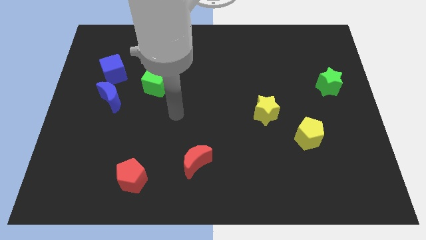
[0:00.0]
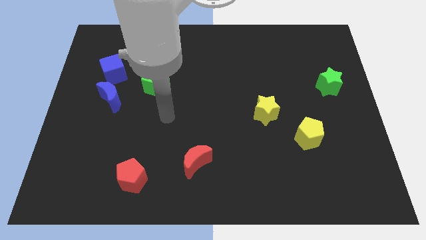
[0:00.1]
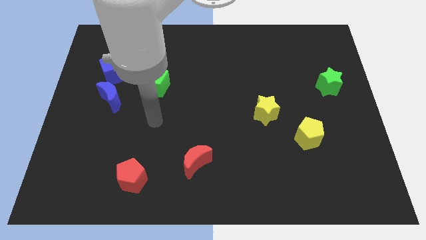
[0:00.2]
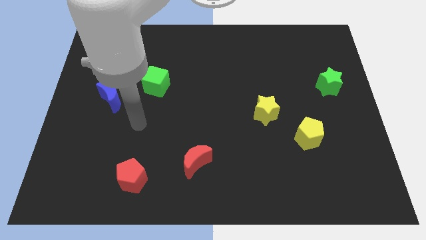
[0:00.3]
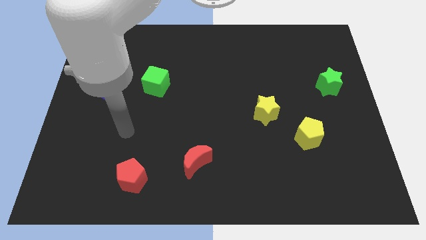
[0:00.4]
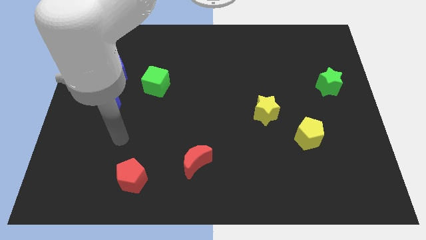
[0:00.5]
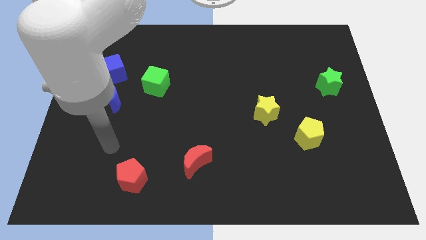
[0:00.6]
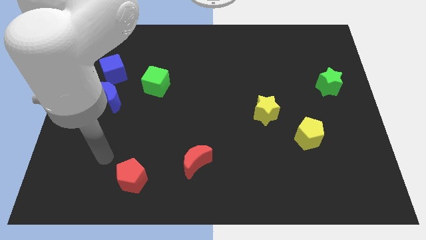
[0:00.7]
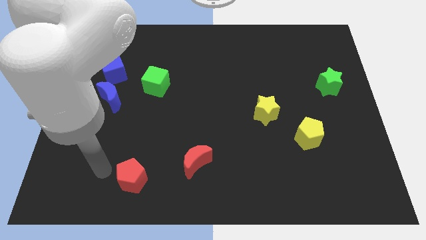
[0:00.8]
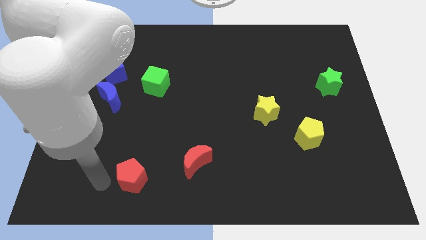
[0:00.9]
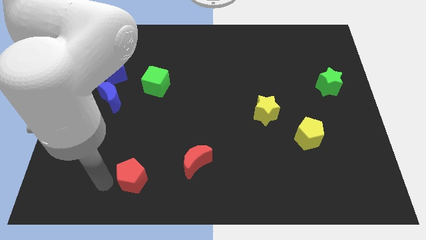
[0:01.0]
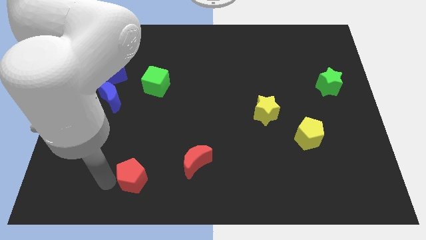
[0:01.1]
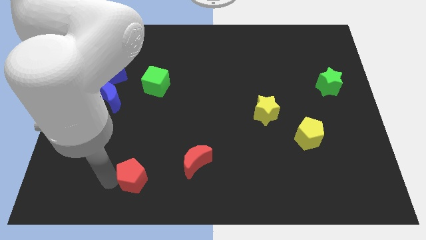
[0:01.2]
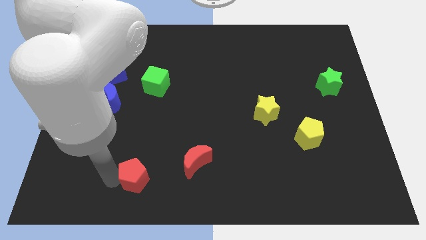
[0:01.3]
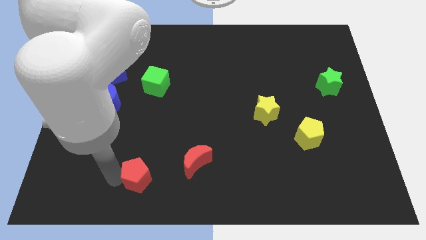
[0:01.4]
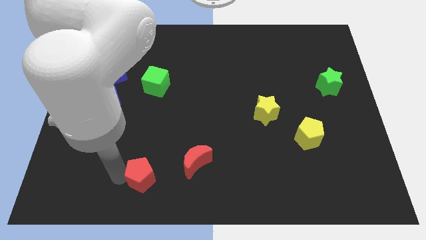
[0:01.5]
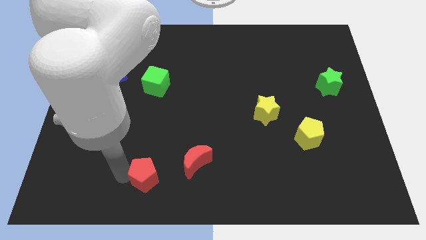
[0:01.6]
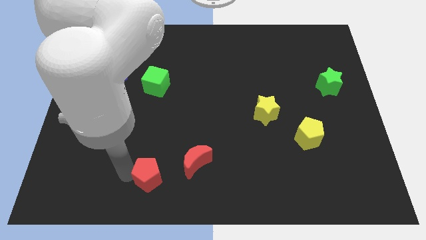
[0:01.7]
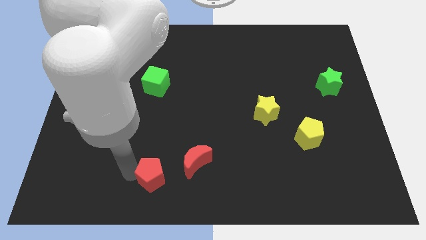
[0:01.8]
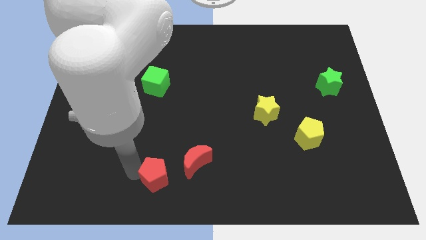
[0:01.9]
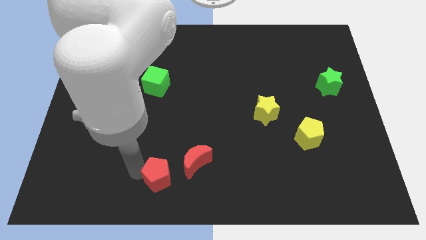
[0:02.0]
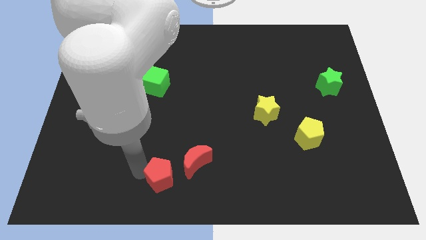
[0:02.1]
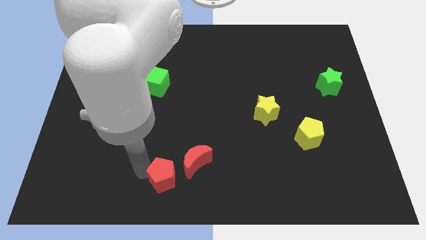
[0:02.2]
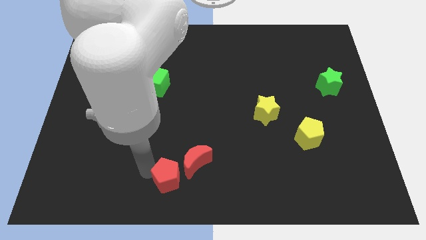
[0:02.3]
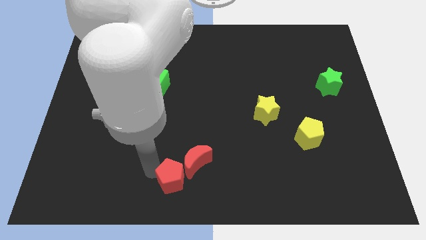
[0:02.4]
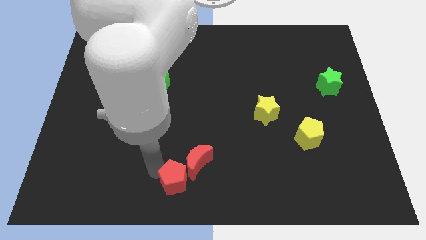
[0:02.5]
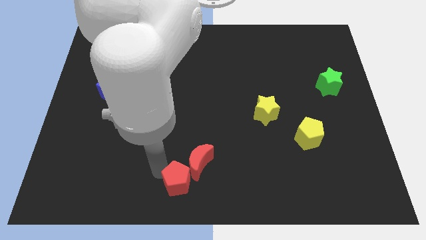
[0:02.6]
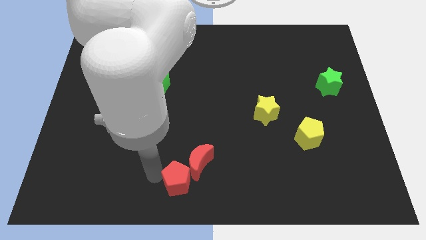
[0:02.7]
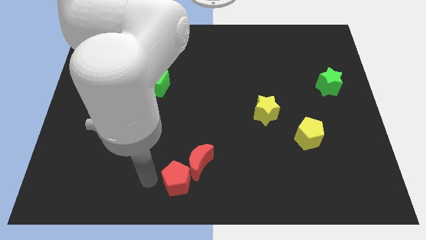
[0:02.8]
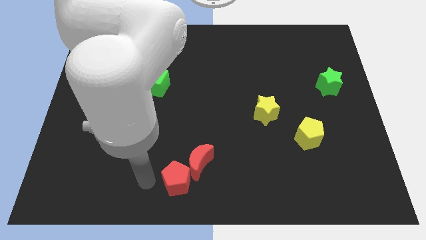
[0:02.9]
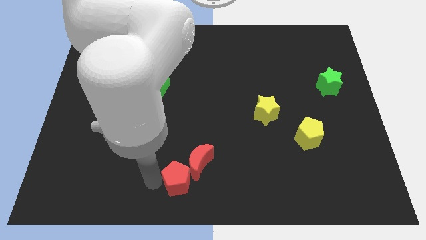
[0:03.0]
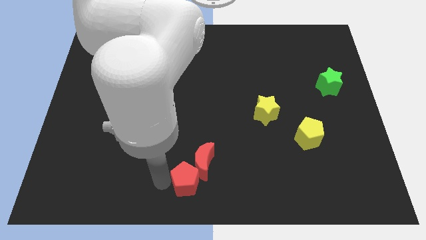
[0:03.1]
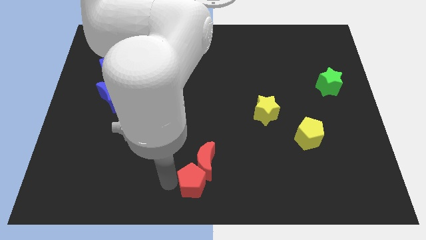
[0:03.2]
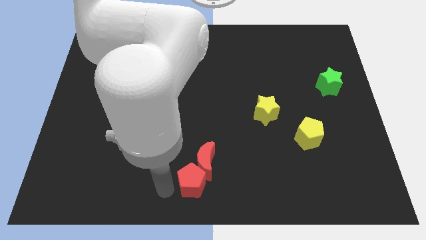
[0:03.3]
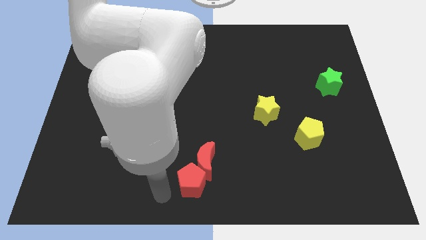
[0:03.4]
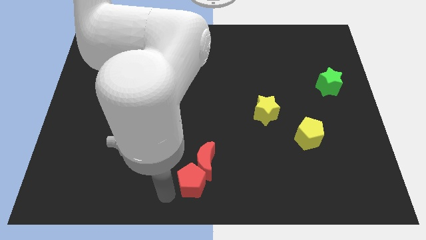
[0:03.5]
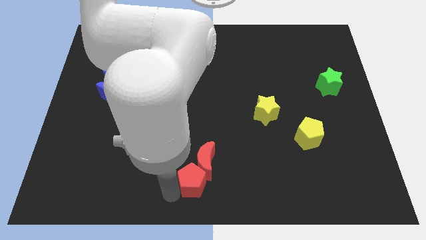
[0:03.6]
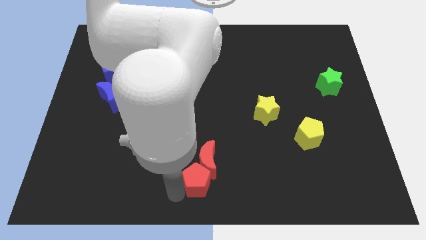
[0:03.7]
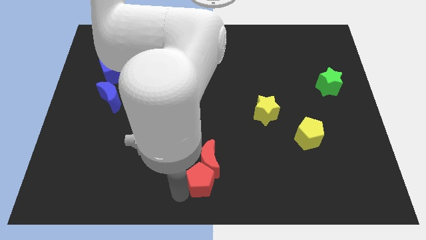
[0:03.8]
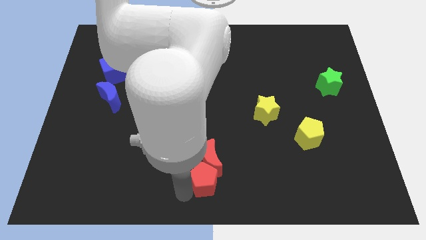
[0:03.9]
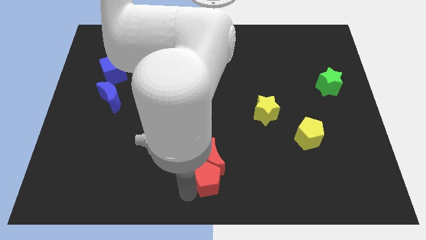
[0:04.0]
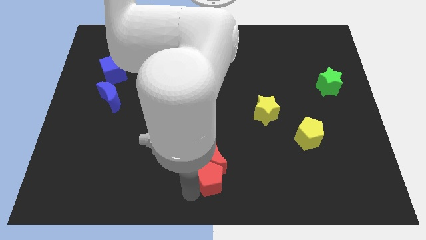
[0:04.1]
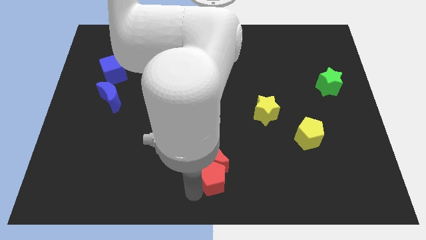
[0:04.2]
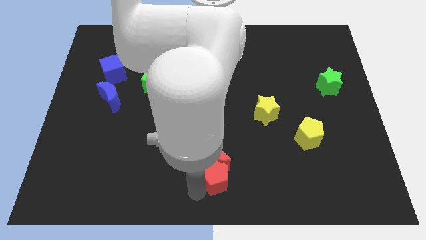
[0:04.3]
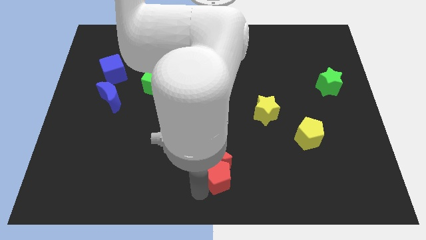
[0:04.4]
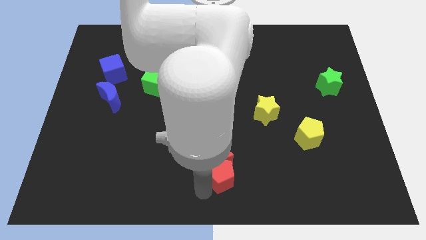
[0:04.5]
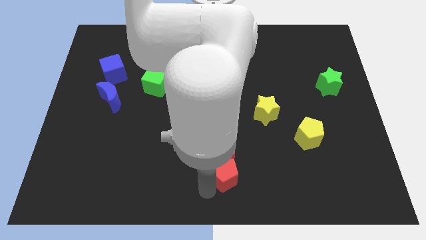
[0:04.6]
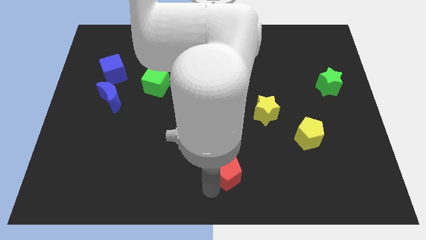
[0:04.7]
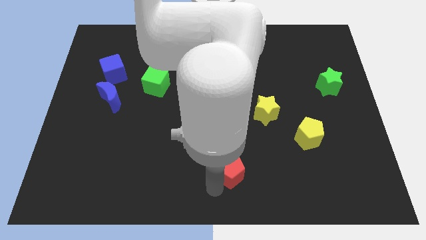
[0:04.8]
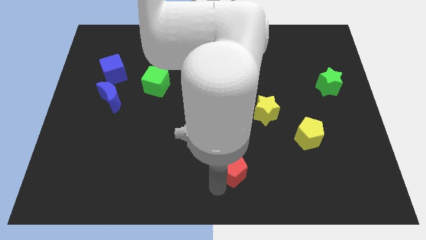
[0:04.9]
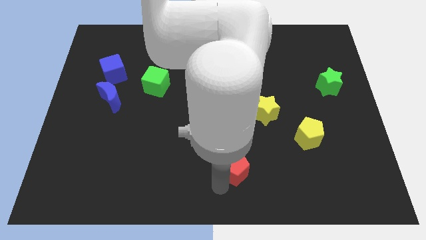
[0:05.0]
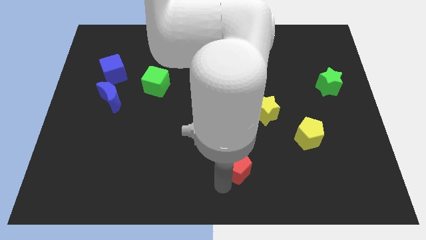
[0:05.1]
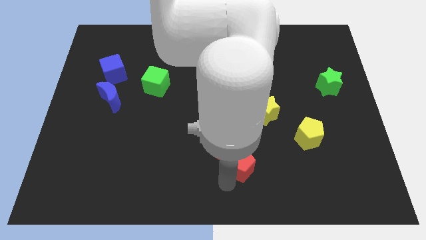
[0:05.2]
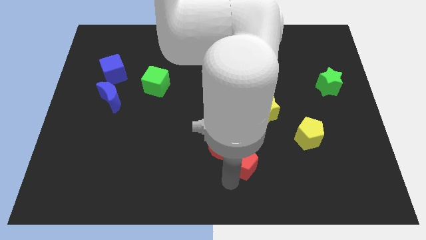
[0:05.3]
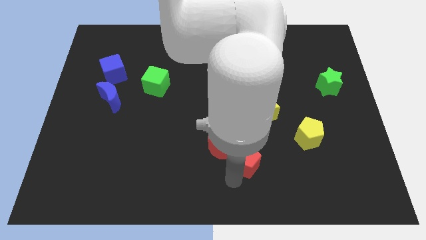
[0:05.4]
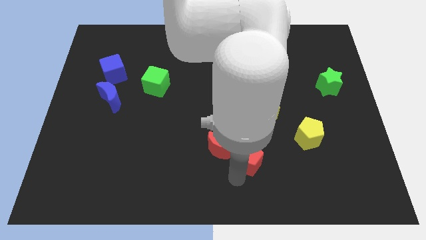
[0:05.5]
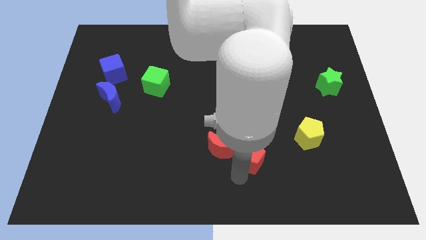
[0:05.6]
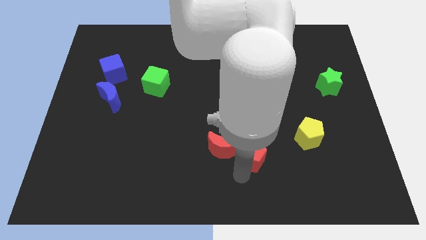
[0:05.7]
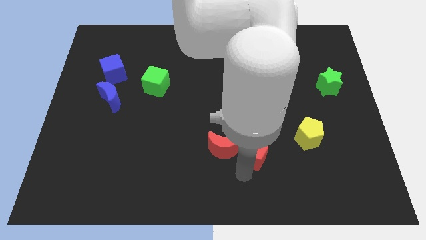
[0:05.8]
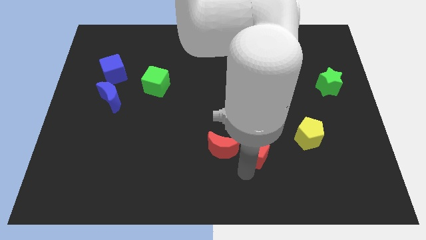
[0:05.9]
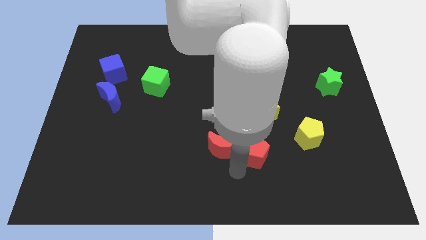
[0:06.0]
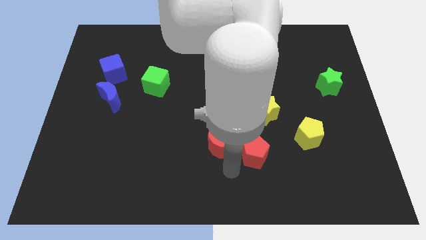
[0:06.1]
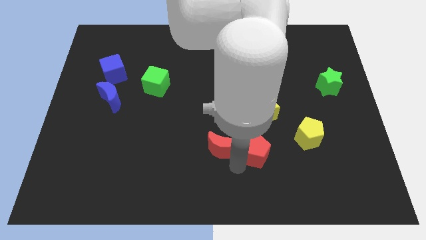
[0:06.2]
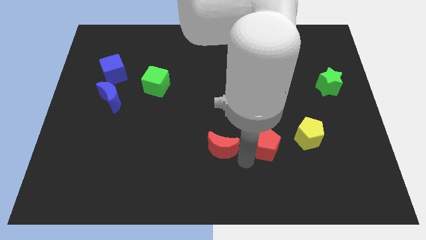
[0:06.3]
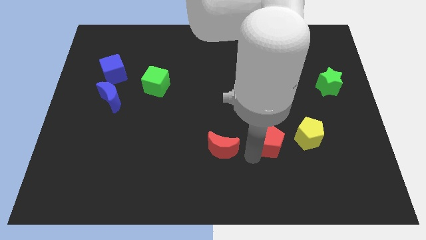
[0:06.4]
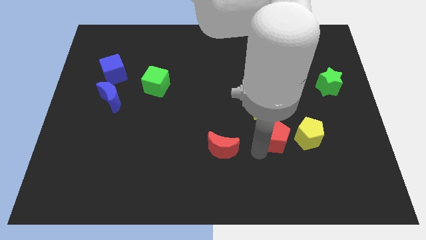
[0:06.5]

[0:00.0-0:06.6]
put the red pentagon to the bottom right of the yellow star

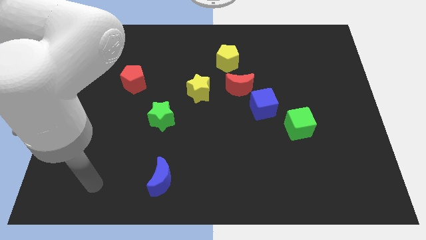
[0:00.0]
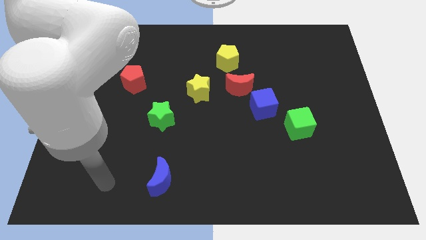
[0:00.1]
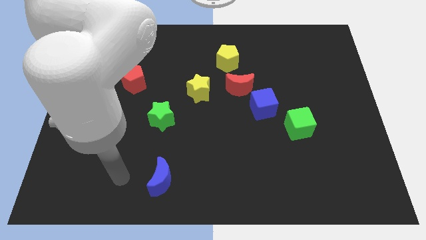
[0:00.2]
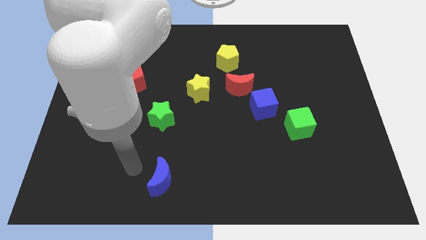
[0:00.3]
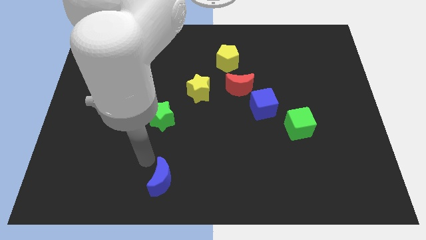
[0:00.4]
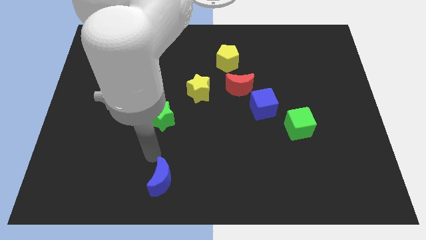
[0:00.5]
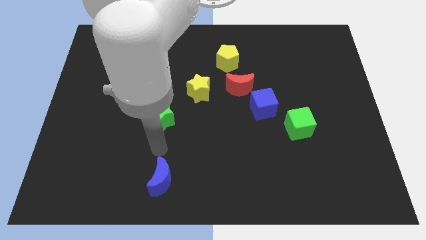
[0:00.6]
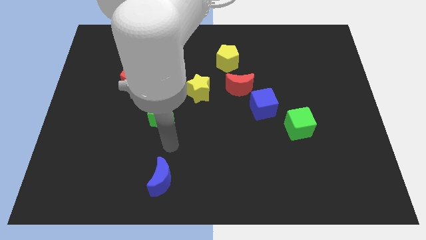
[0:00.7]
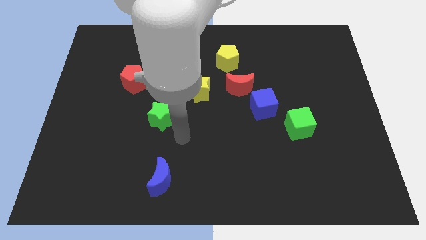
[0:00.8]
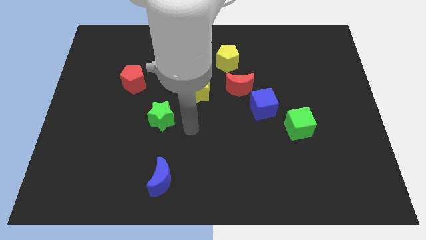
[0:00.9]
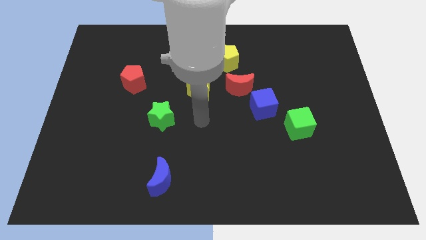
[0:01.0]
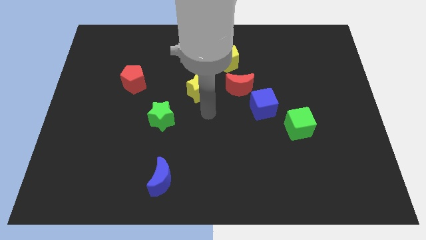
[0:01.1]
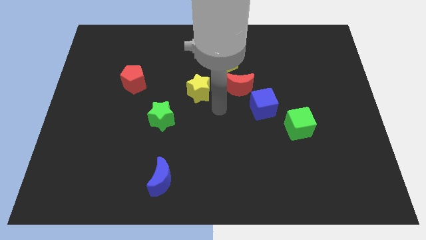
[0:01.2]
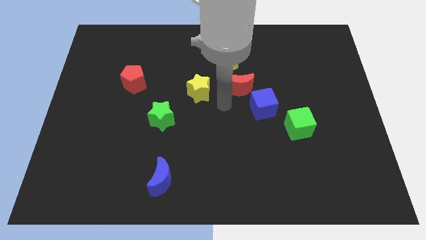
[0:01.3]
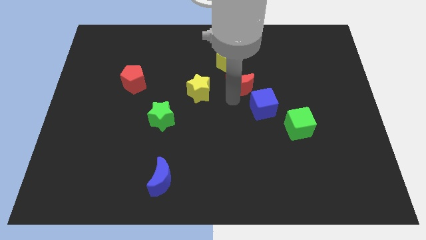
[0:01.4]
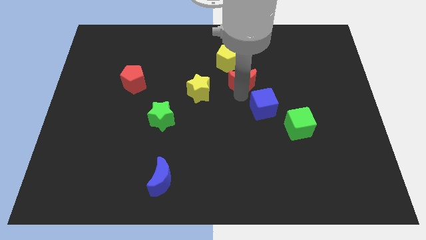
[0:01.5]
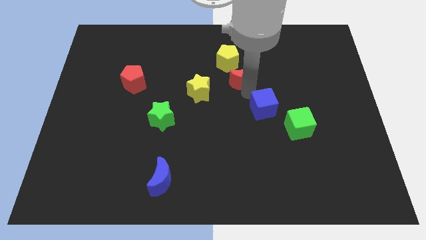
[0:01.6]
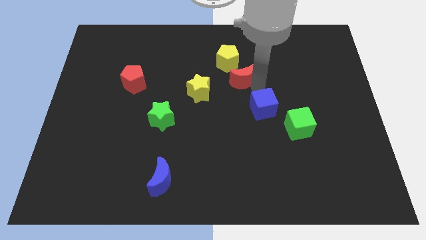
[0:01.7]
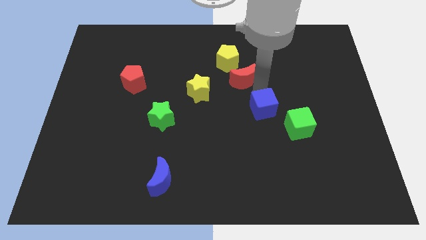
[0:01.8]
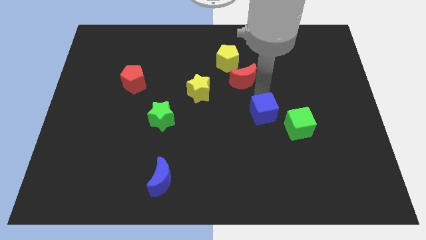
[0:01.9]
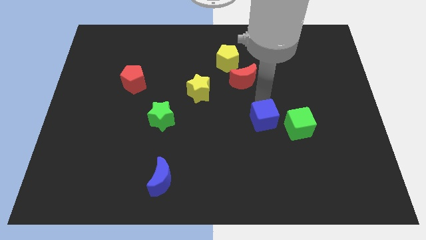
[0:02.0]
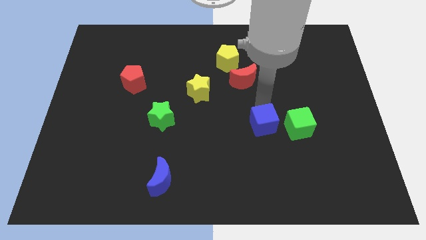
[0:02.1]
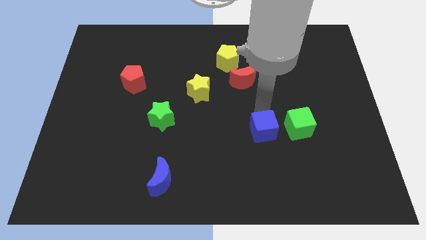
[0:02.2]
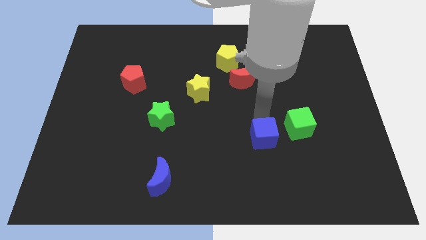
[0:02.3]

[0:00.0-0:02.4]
move the blue cube diagonally down and to the left of the green cube
